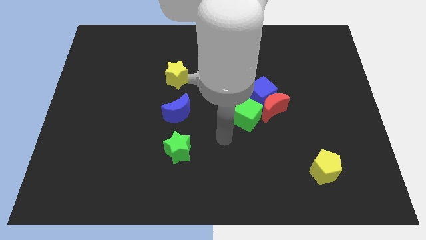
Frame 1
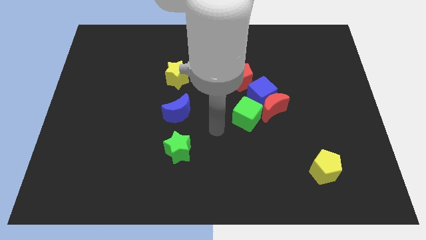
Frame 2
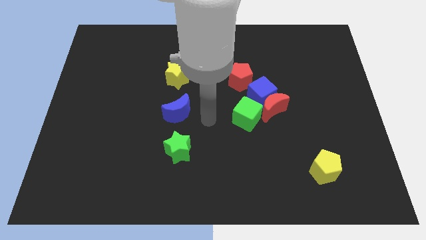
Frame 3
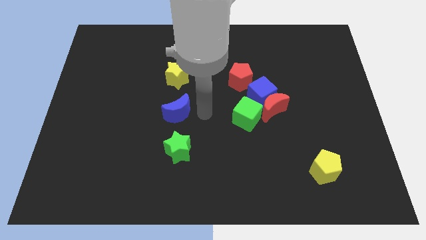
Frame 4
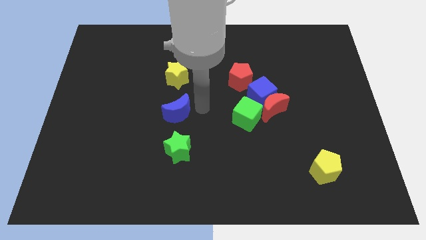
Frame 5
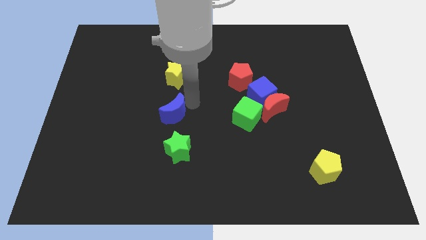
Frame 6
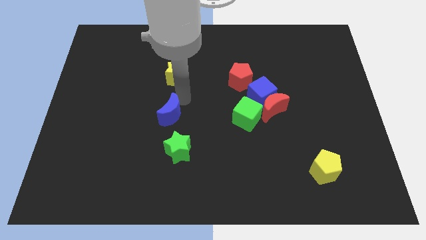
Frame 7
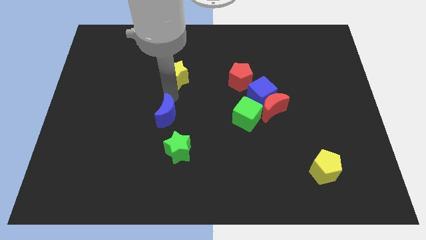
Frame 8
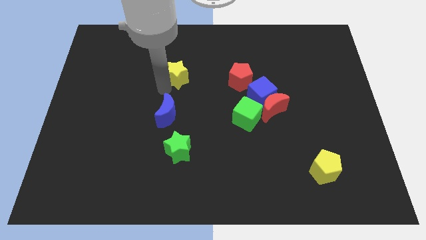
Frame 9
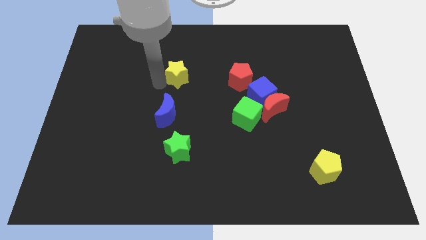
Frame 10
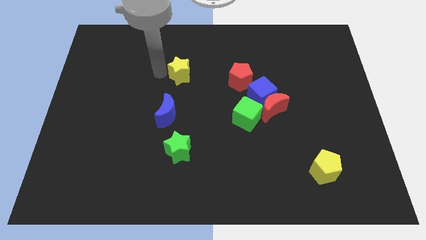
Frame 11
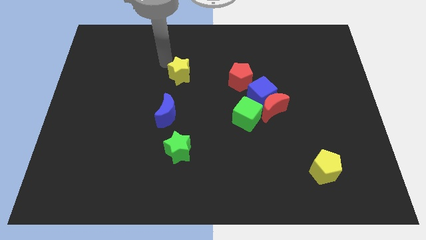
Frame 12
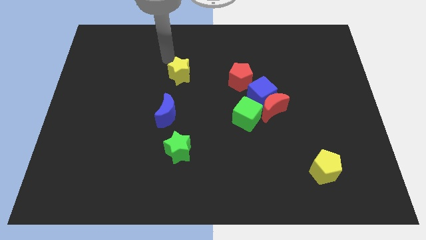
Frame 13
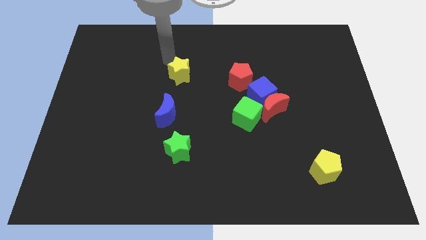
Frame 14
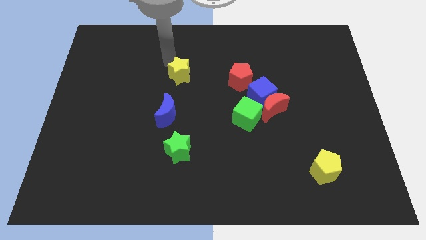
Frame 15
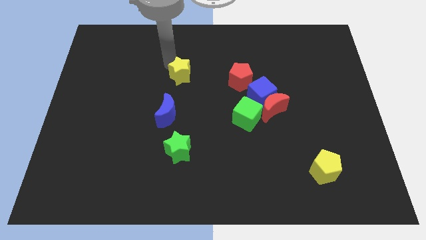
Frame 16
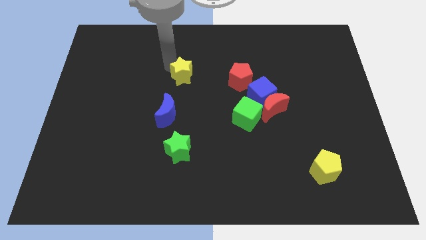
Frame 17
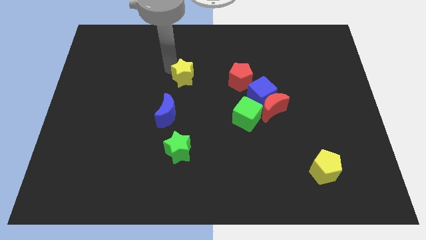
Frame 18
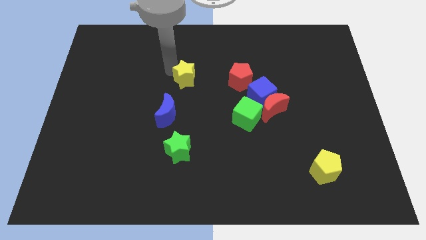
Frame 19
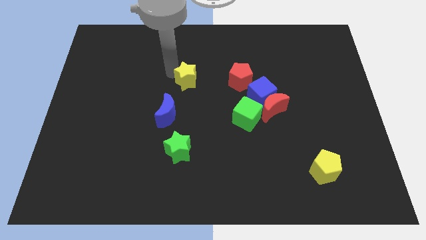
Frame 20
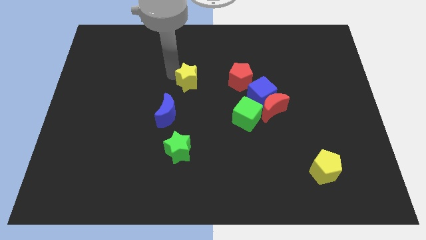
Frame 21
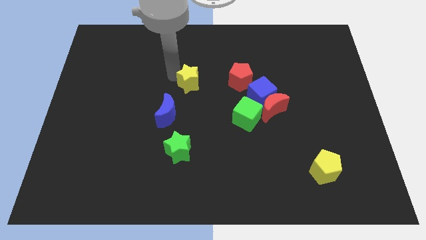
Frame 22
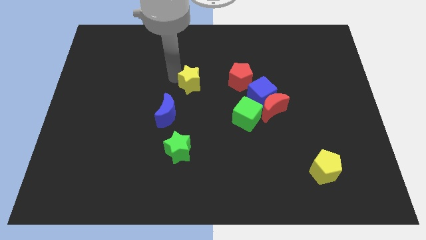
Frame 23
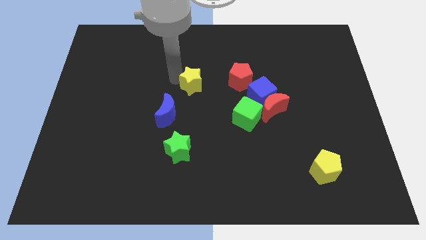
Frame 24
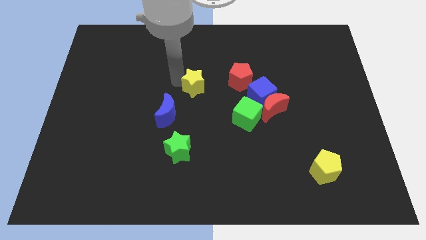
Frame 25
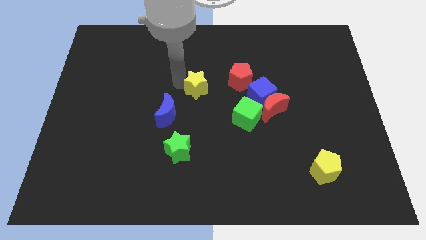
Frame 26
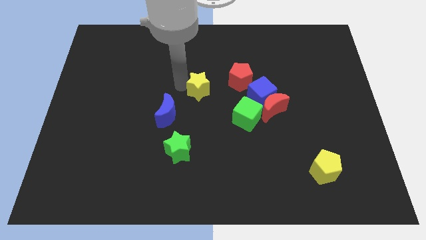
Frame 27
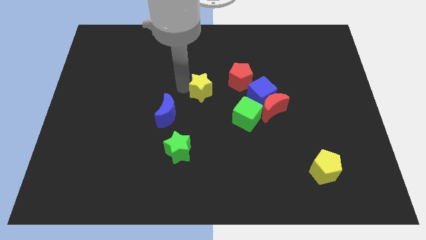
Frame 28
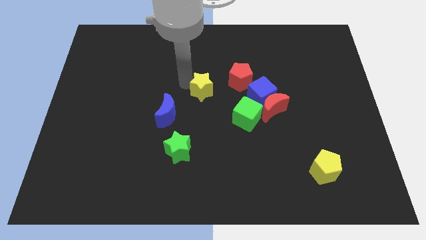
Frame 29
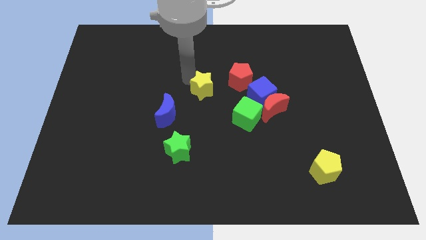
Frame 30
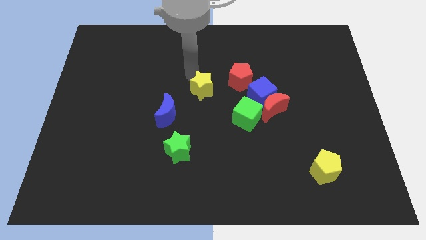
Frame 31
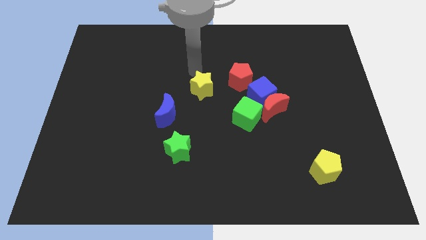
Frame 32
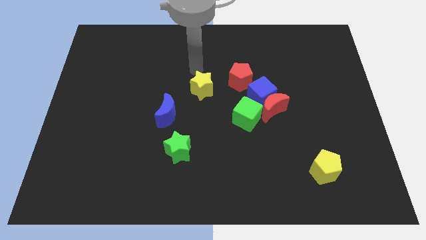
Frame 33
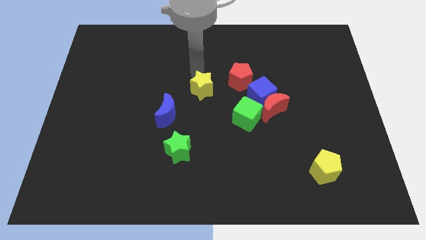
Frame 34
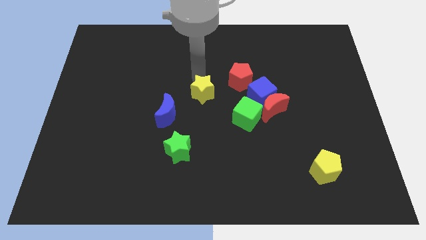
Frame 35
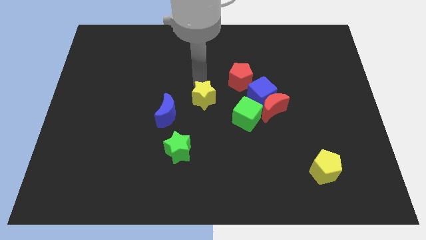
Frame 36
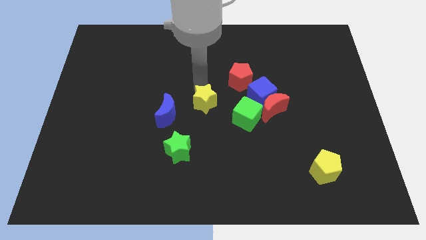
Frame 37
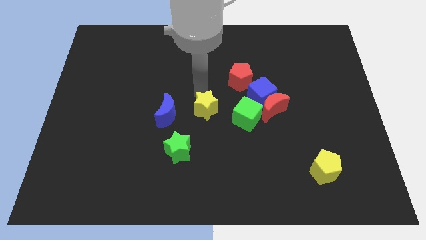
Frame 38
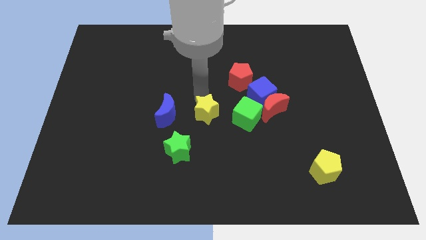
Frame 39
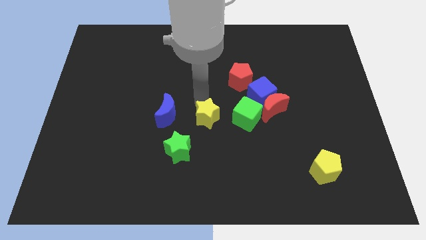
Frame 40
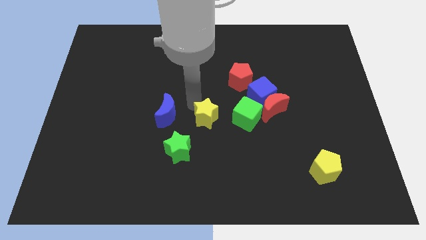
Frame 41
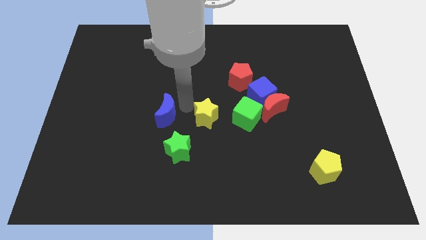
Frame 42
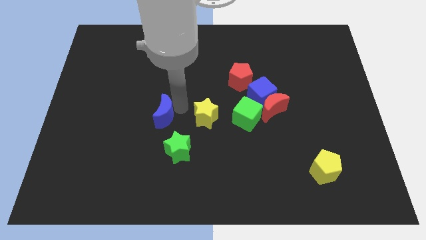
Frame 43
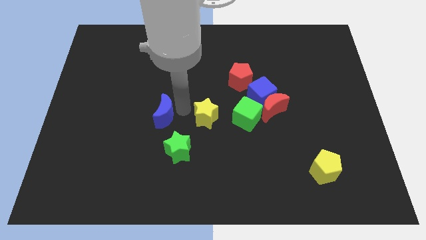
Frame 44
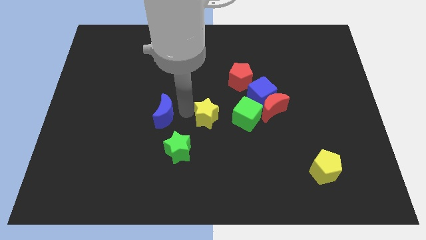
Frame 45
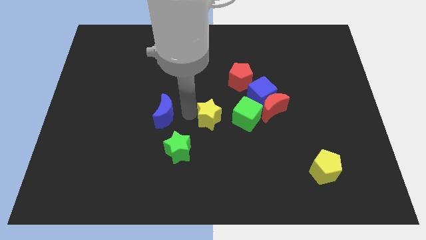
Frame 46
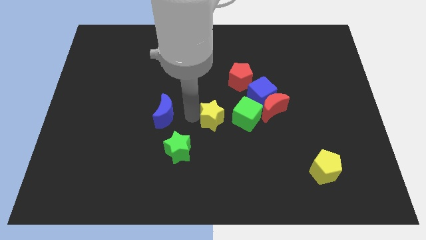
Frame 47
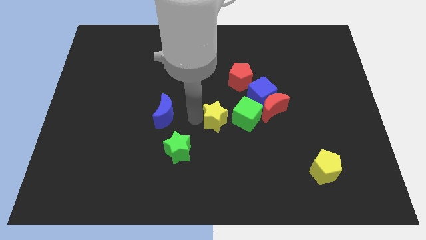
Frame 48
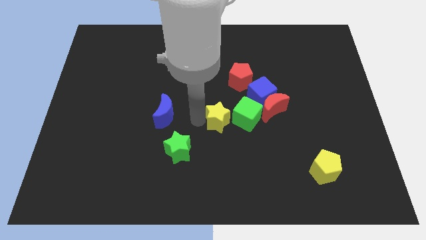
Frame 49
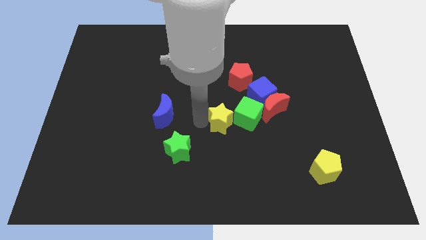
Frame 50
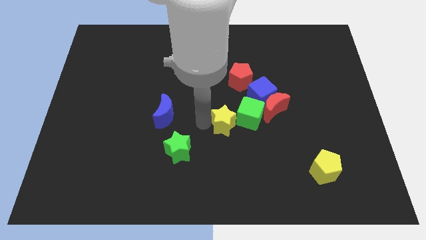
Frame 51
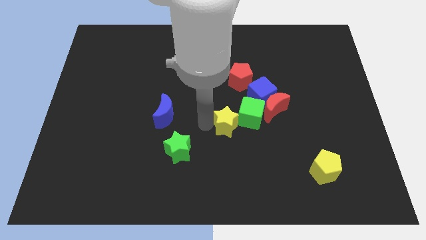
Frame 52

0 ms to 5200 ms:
move the yellow star below the red pentagon

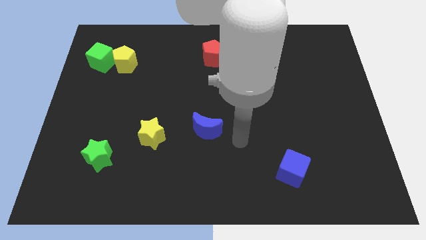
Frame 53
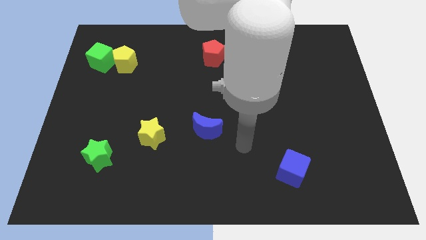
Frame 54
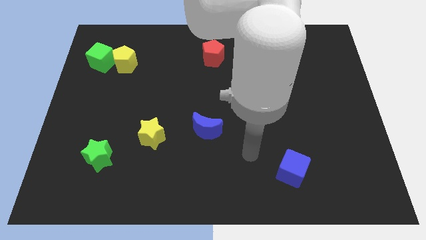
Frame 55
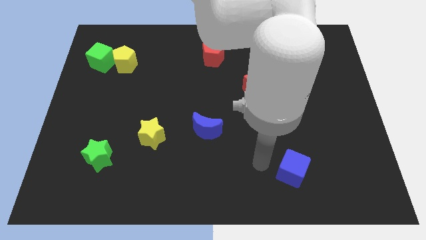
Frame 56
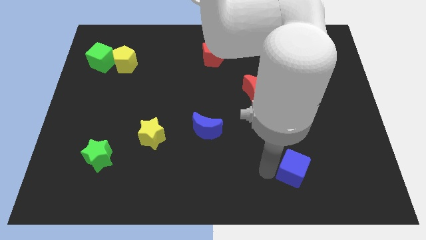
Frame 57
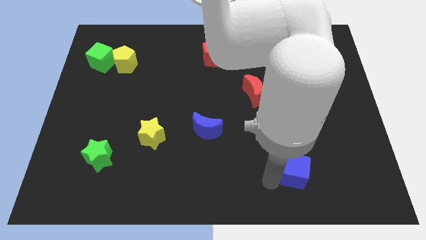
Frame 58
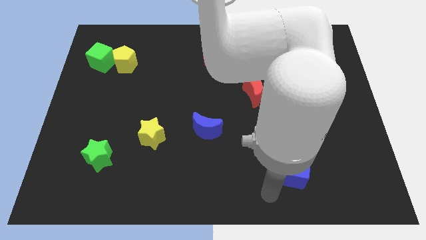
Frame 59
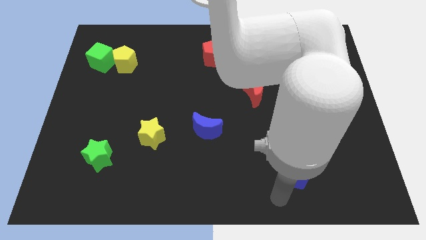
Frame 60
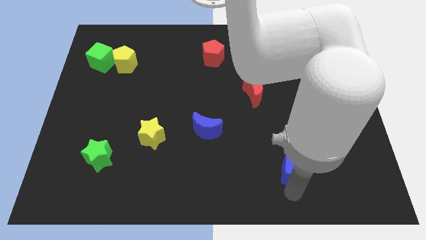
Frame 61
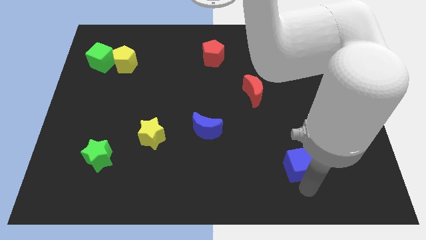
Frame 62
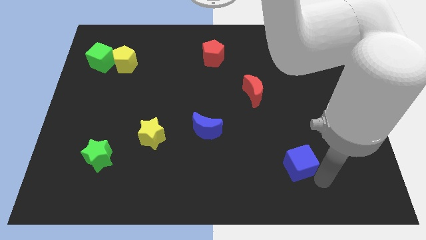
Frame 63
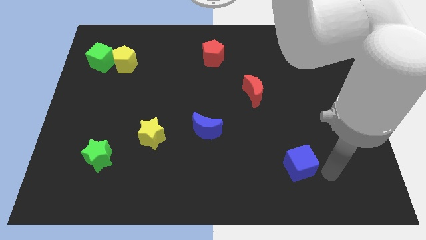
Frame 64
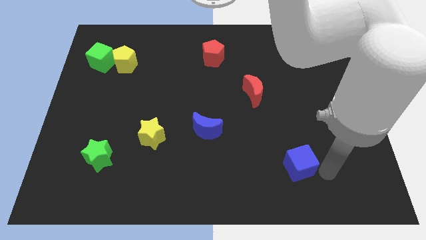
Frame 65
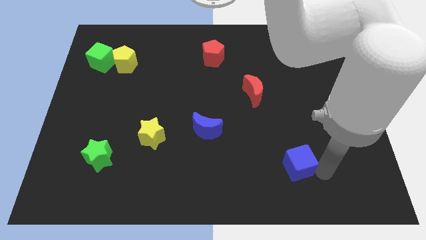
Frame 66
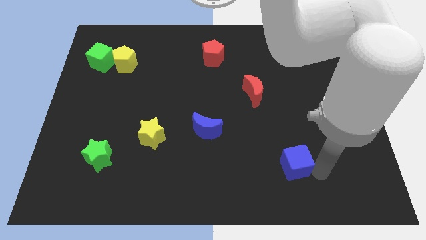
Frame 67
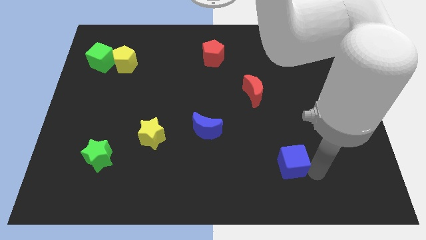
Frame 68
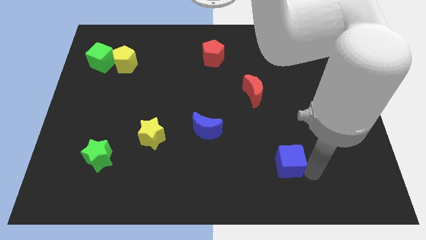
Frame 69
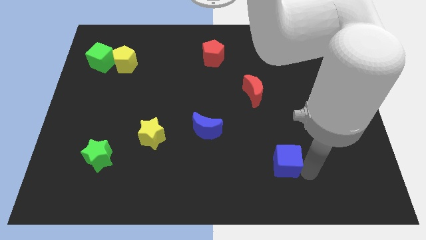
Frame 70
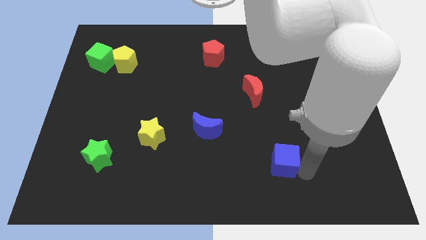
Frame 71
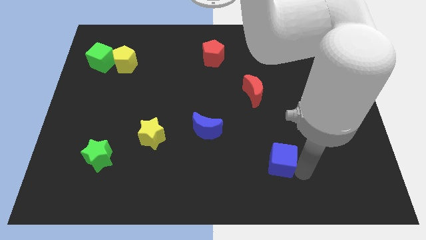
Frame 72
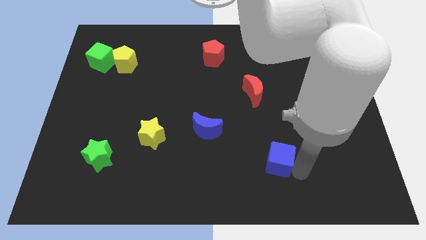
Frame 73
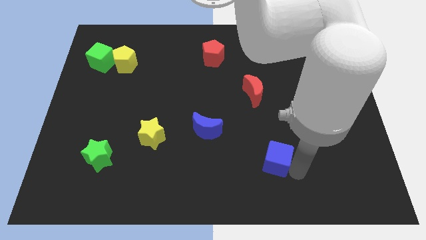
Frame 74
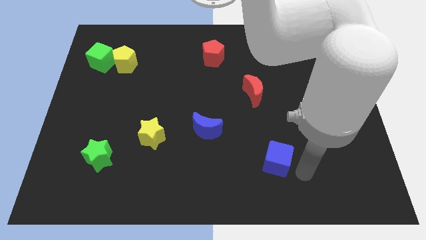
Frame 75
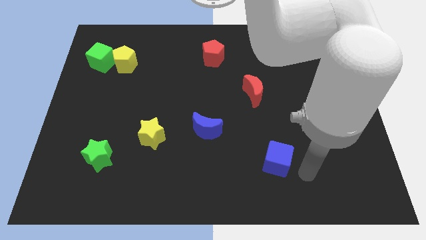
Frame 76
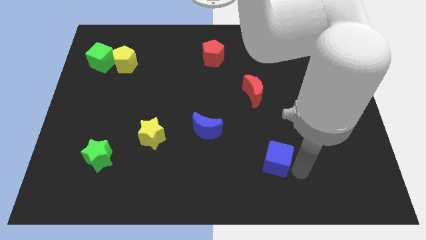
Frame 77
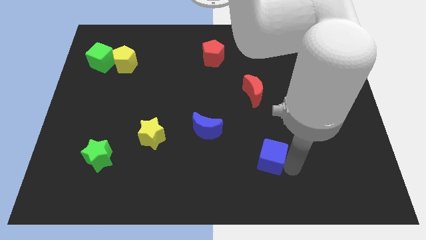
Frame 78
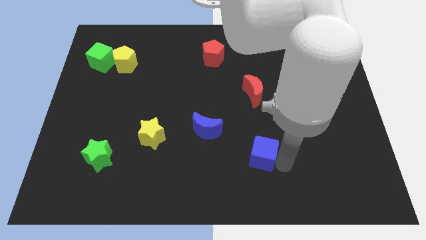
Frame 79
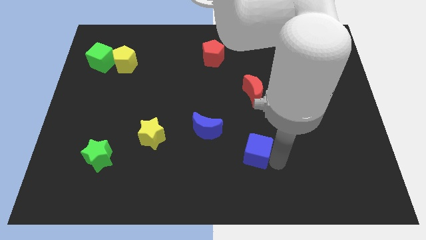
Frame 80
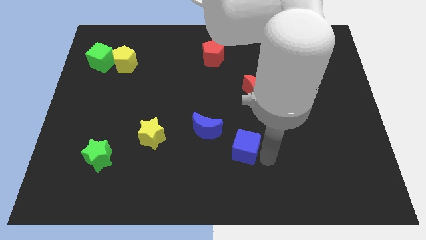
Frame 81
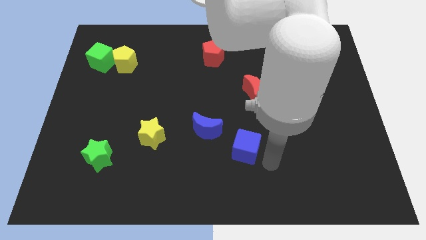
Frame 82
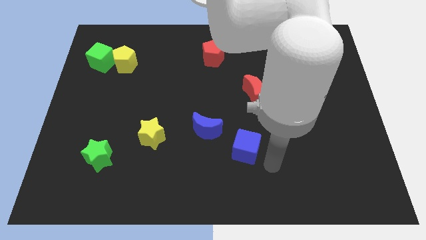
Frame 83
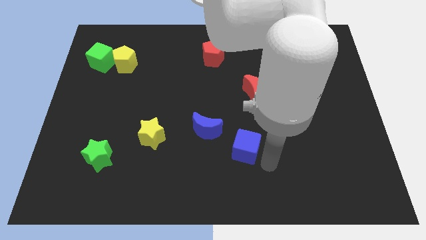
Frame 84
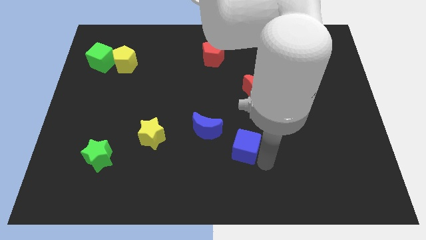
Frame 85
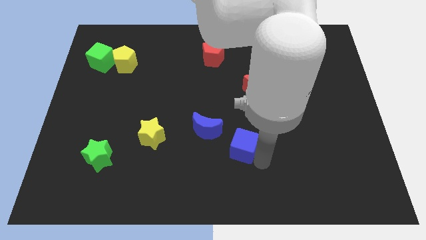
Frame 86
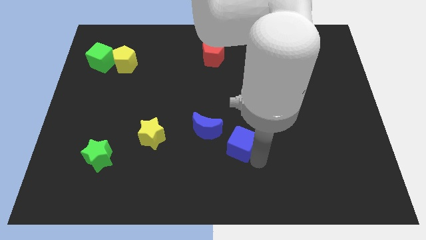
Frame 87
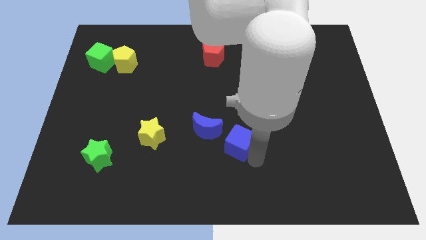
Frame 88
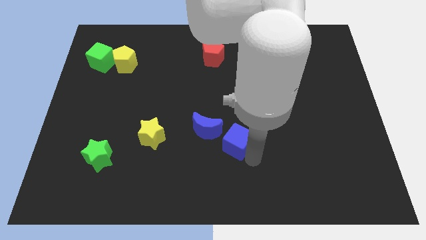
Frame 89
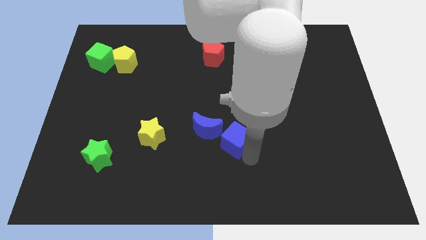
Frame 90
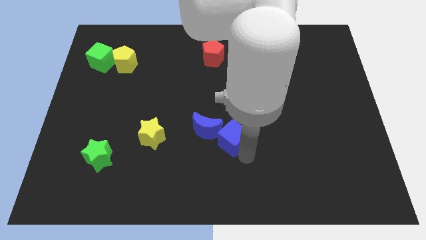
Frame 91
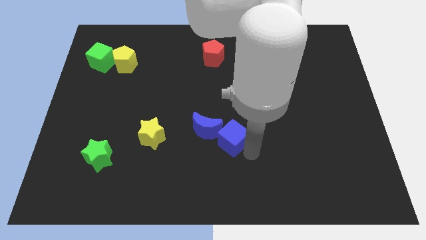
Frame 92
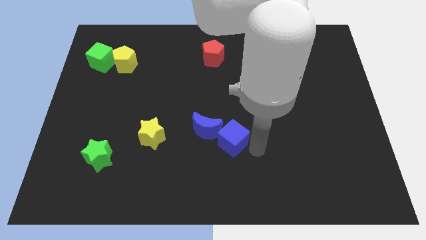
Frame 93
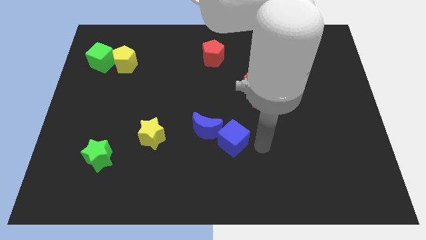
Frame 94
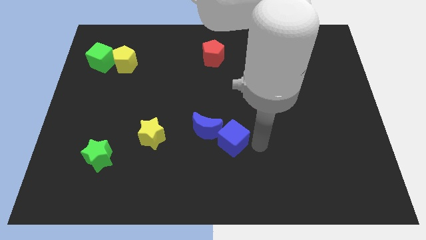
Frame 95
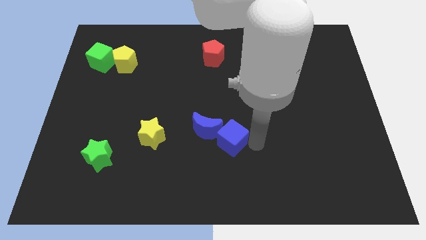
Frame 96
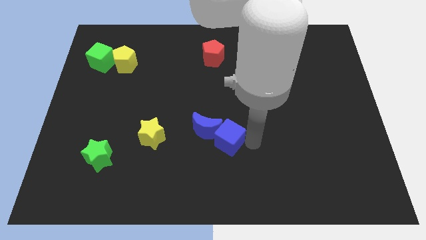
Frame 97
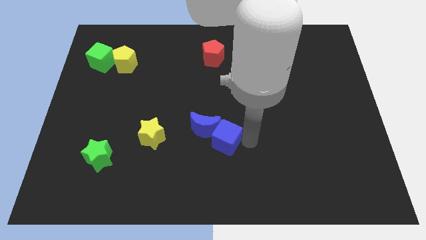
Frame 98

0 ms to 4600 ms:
slide the blue cube just right of the yellow star
